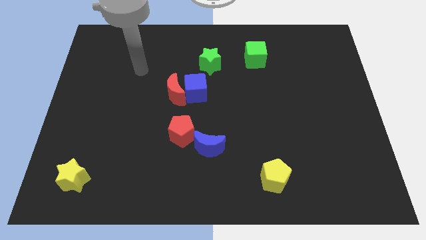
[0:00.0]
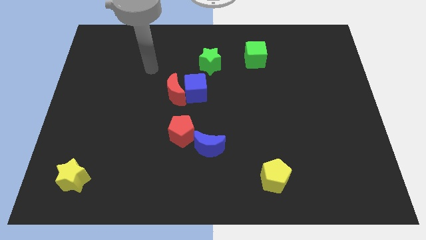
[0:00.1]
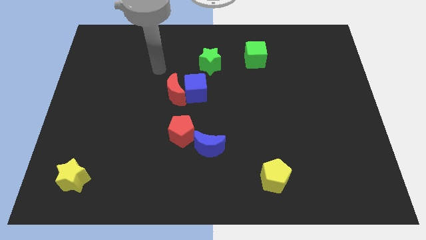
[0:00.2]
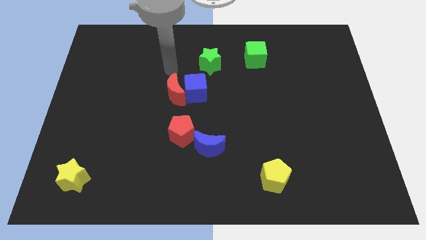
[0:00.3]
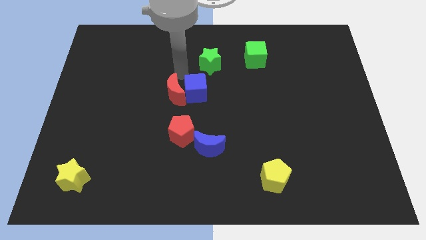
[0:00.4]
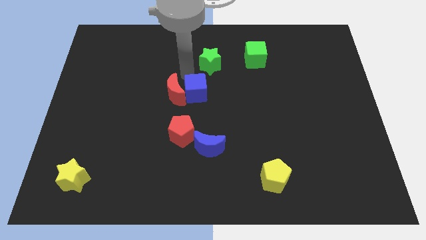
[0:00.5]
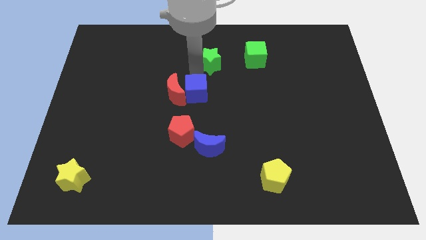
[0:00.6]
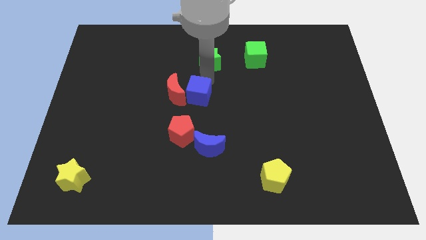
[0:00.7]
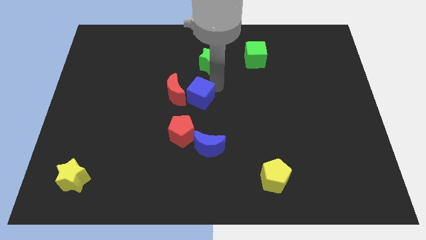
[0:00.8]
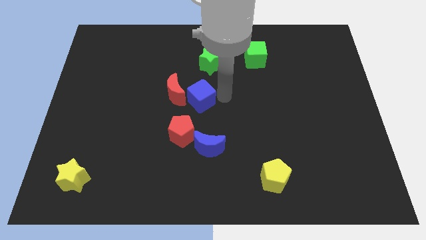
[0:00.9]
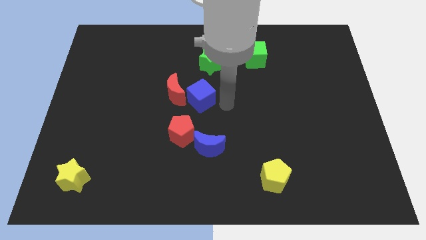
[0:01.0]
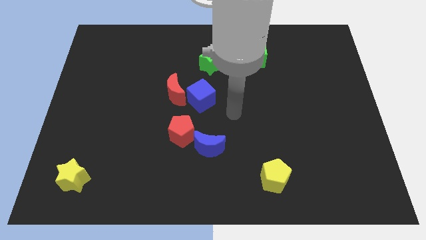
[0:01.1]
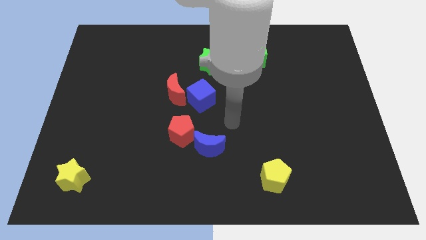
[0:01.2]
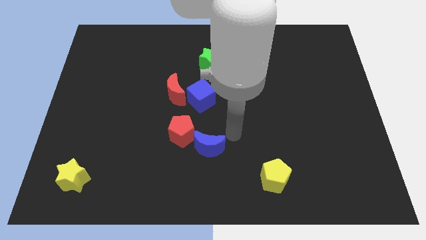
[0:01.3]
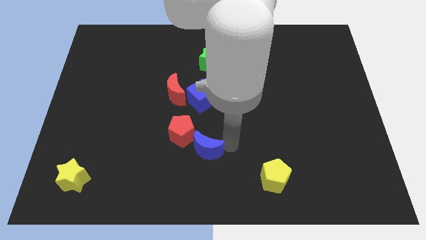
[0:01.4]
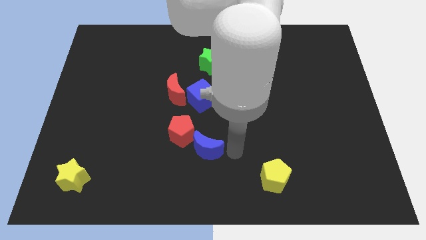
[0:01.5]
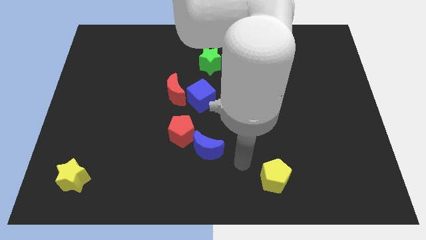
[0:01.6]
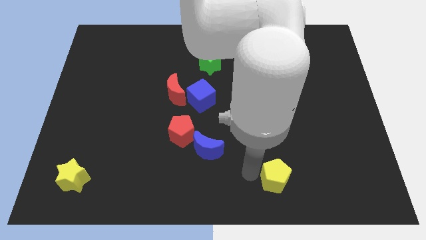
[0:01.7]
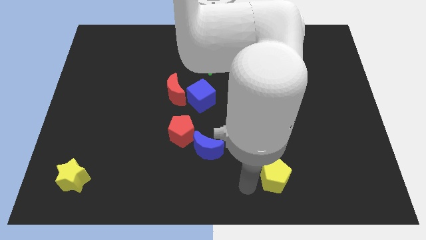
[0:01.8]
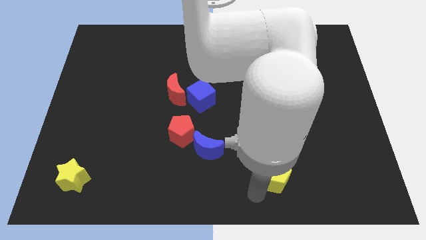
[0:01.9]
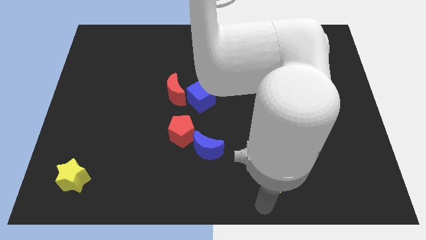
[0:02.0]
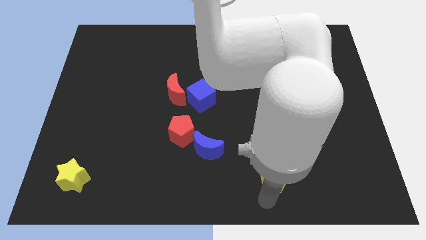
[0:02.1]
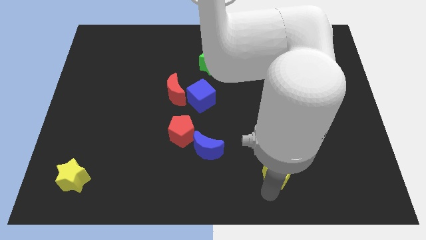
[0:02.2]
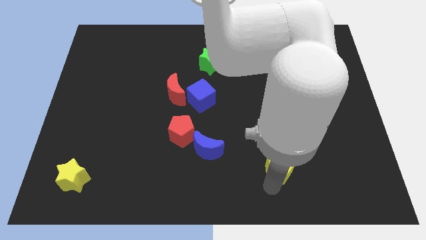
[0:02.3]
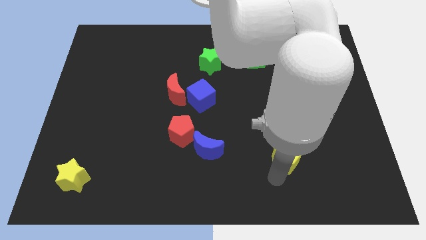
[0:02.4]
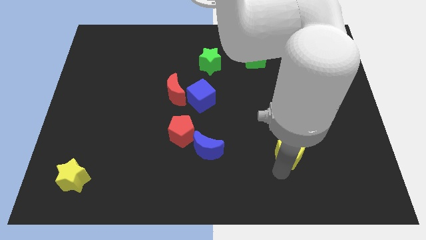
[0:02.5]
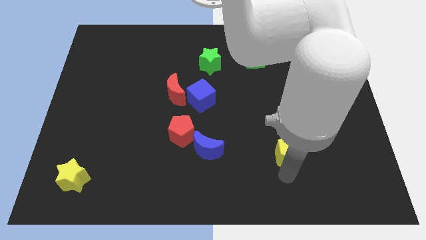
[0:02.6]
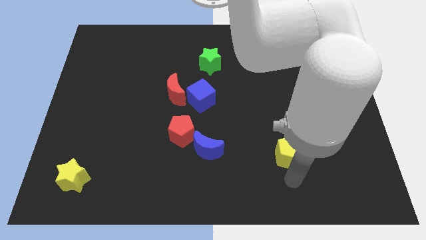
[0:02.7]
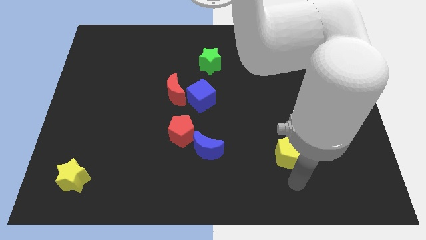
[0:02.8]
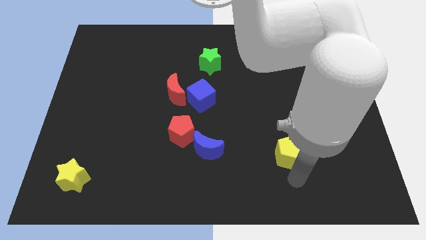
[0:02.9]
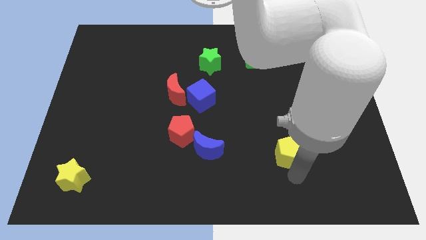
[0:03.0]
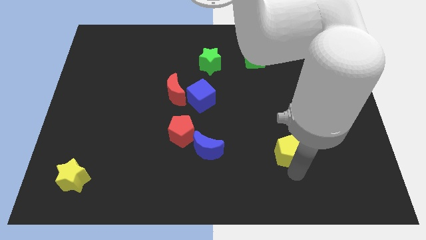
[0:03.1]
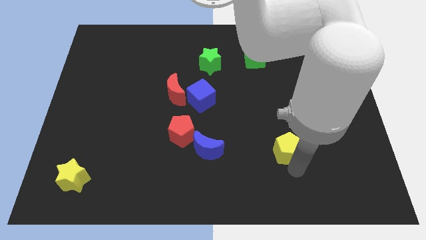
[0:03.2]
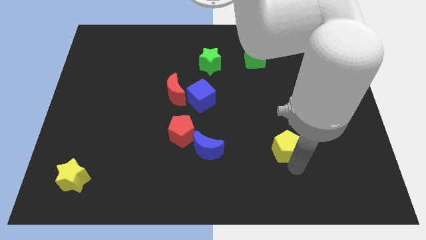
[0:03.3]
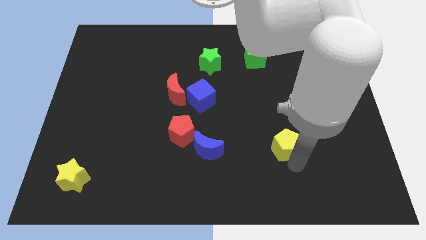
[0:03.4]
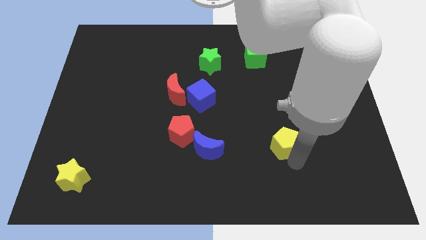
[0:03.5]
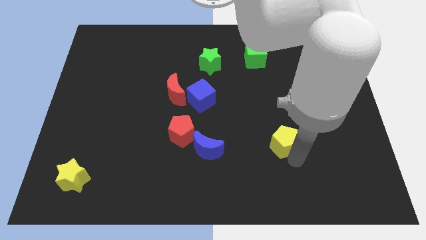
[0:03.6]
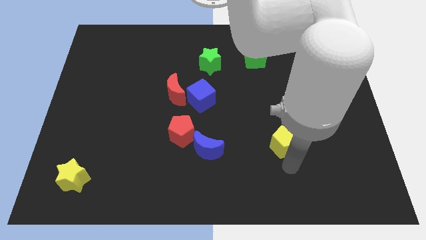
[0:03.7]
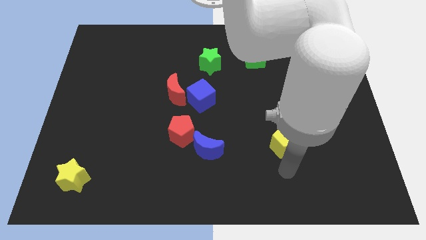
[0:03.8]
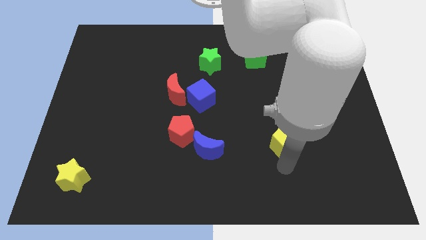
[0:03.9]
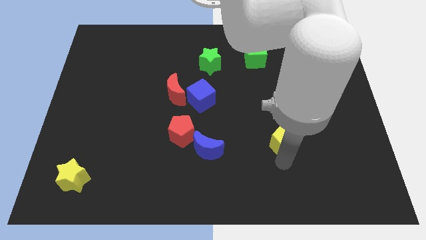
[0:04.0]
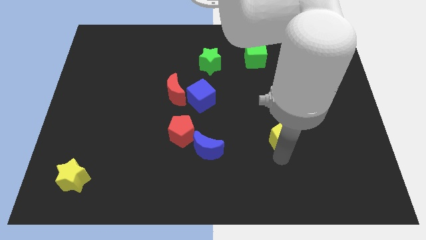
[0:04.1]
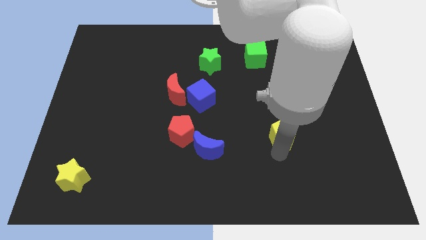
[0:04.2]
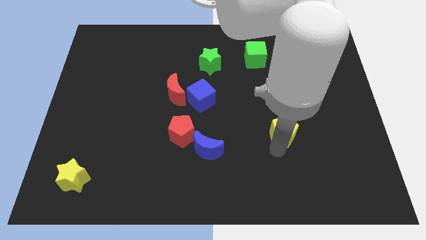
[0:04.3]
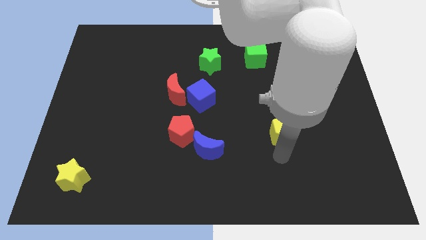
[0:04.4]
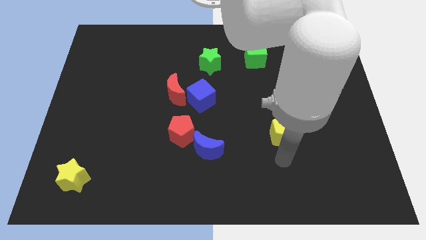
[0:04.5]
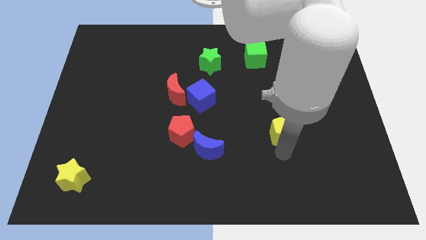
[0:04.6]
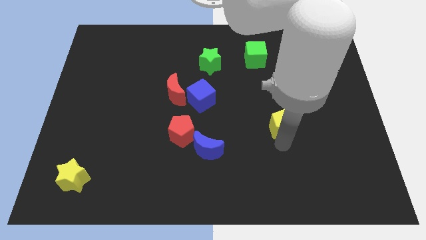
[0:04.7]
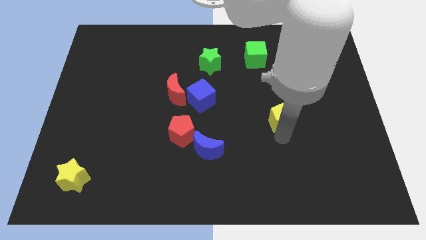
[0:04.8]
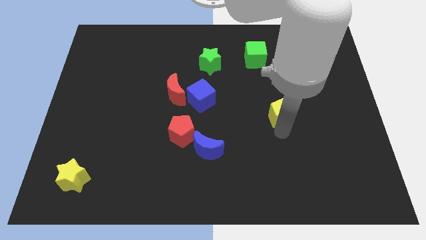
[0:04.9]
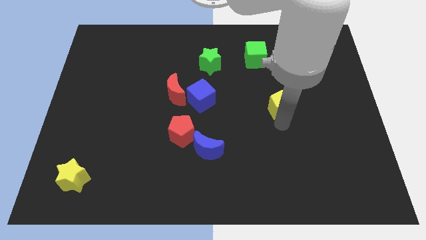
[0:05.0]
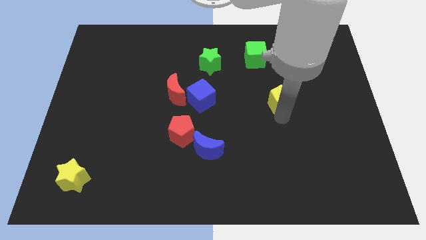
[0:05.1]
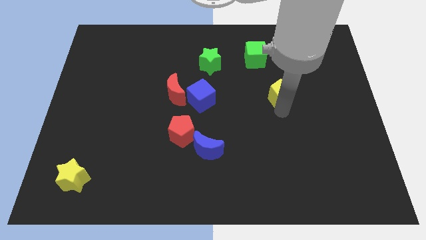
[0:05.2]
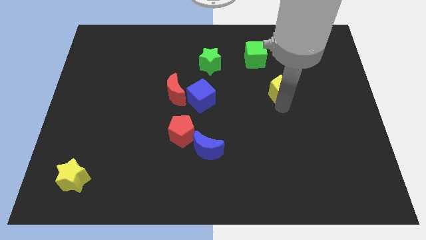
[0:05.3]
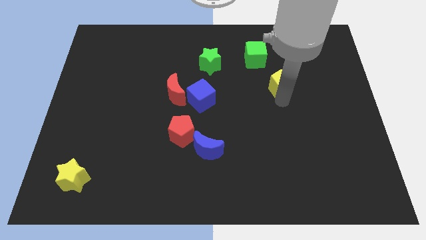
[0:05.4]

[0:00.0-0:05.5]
put the yellow pentagon diagonally down and to the right of the green cube

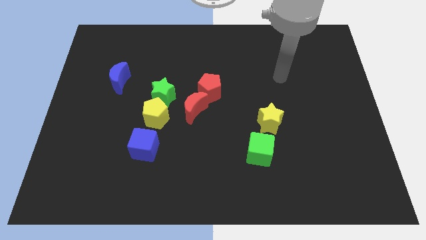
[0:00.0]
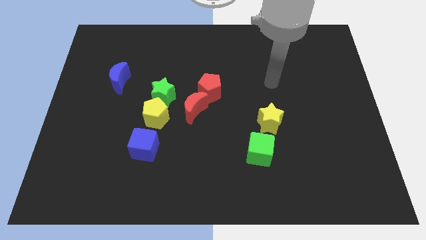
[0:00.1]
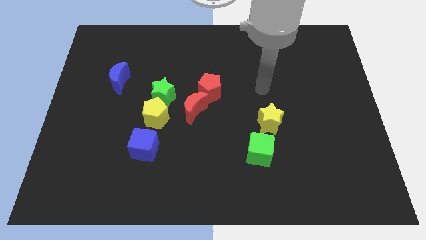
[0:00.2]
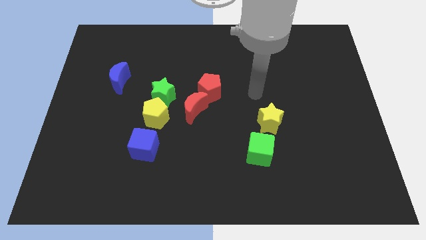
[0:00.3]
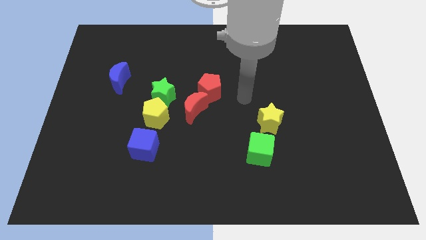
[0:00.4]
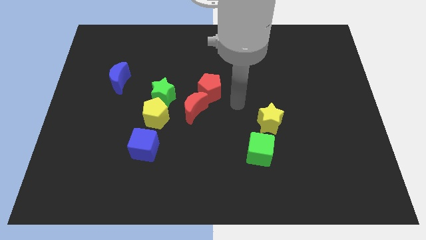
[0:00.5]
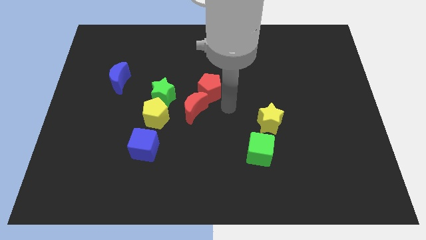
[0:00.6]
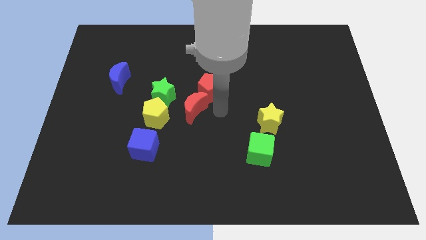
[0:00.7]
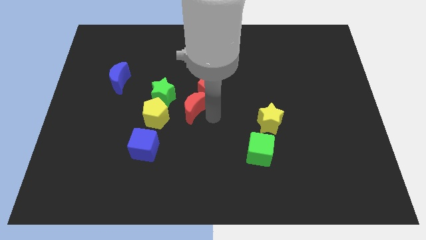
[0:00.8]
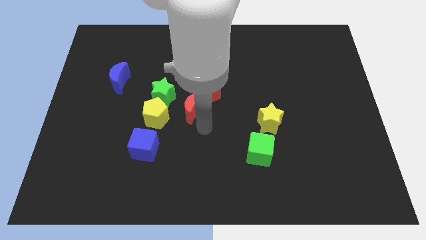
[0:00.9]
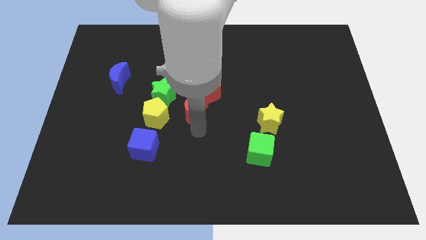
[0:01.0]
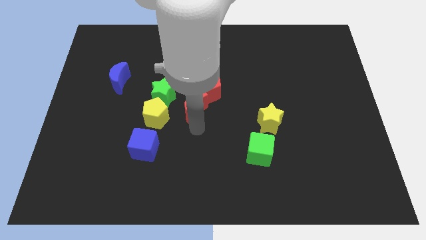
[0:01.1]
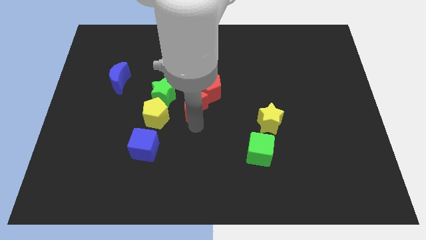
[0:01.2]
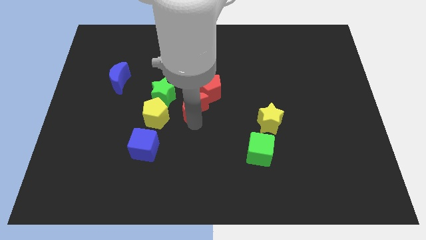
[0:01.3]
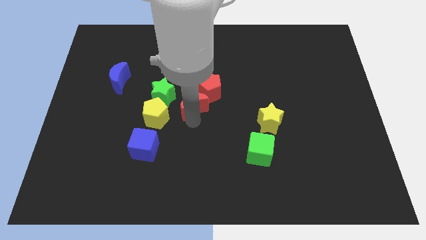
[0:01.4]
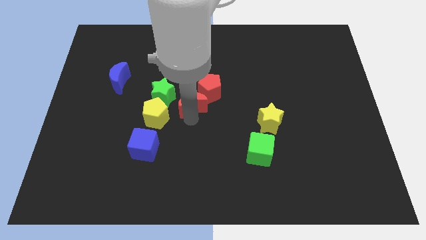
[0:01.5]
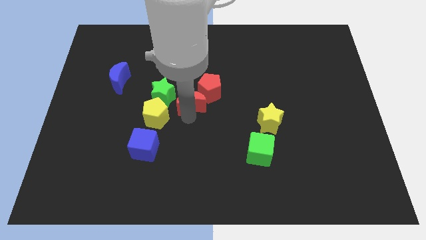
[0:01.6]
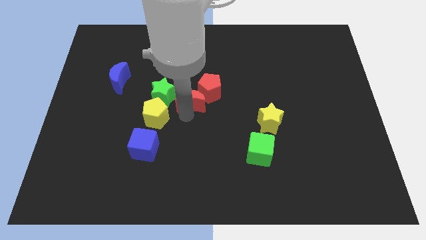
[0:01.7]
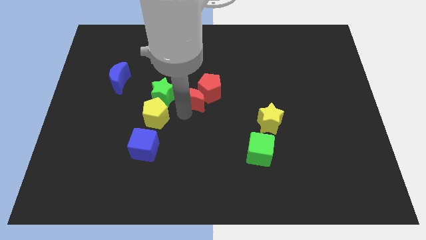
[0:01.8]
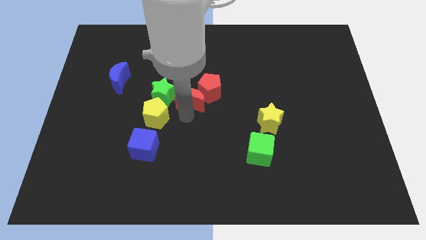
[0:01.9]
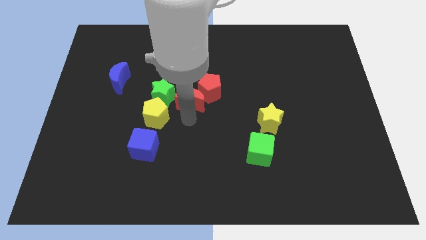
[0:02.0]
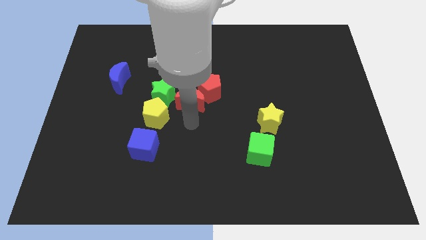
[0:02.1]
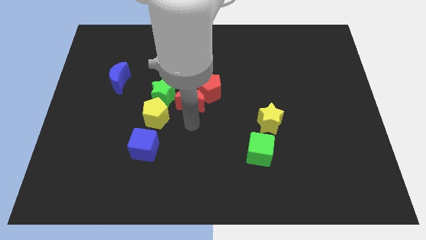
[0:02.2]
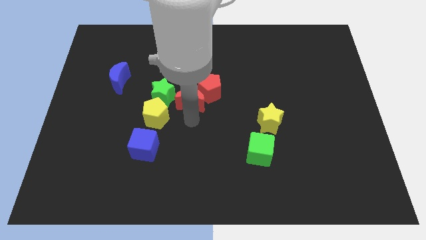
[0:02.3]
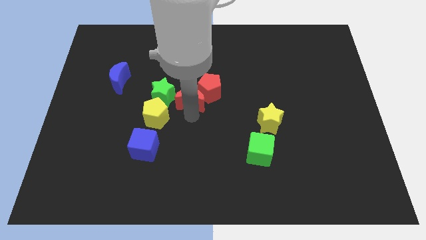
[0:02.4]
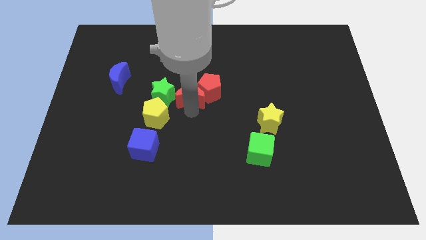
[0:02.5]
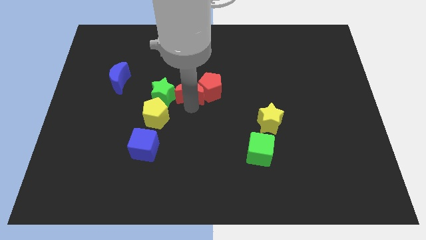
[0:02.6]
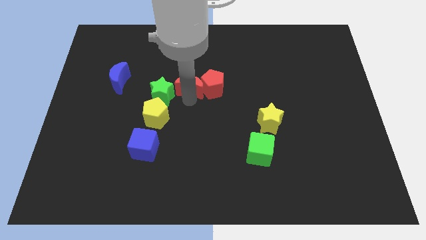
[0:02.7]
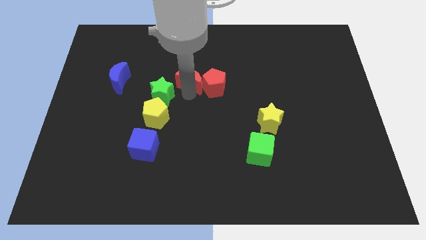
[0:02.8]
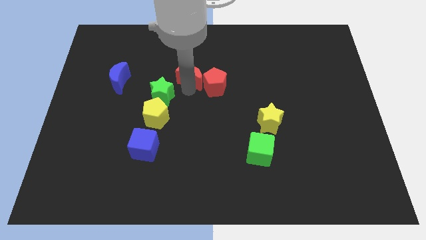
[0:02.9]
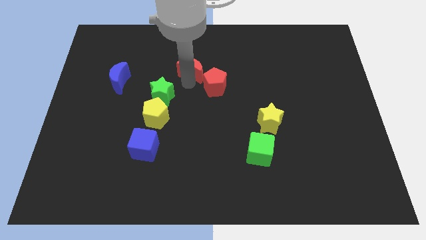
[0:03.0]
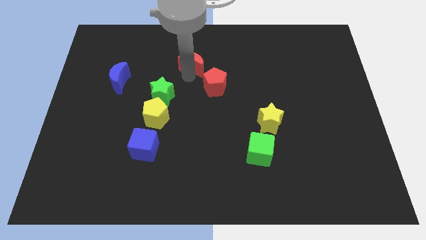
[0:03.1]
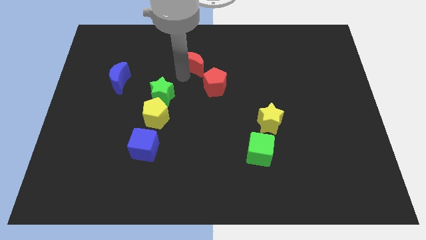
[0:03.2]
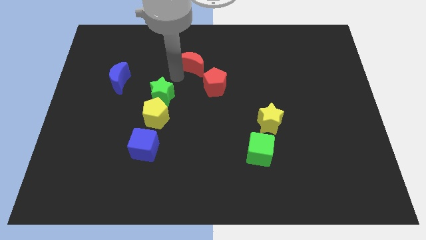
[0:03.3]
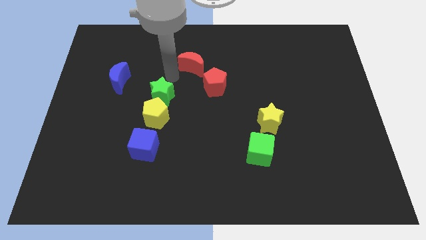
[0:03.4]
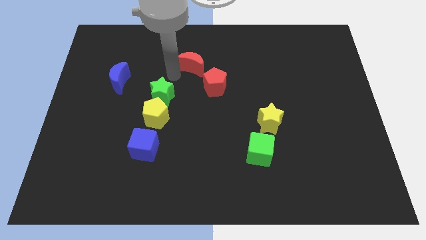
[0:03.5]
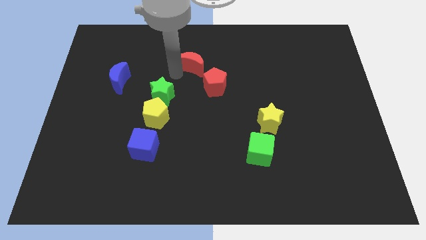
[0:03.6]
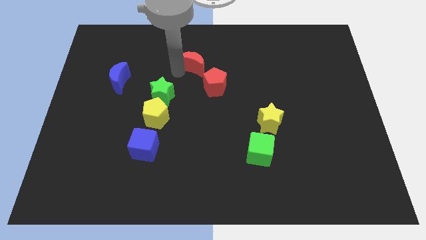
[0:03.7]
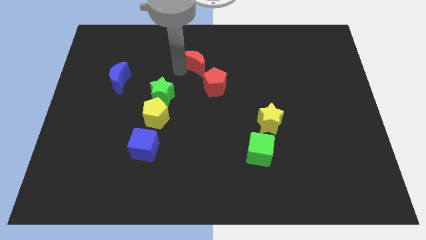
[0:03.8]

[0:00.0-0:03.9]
slide the red moon above the red pentagon
